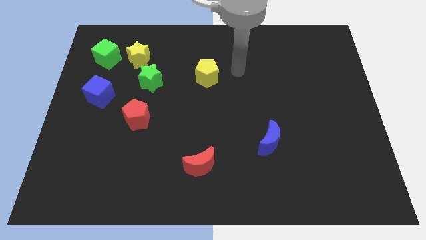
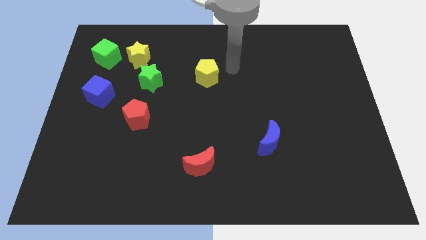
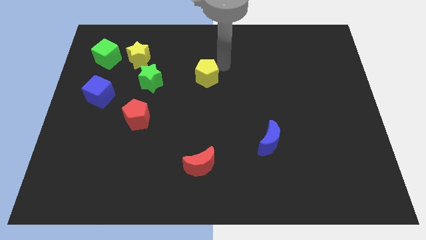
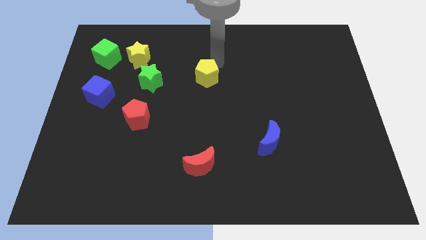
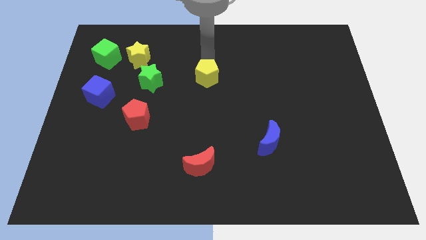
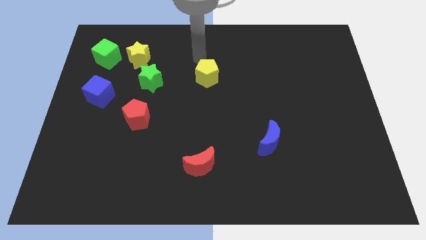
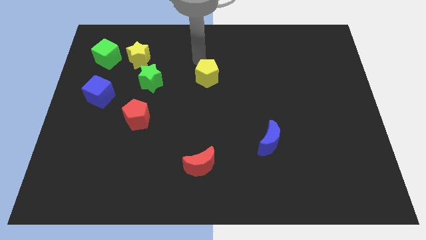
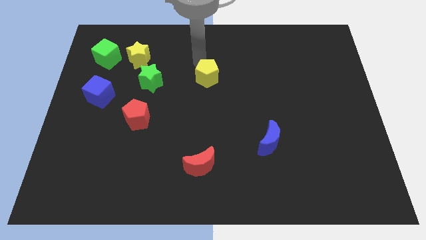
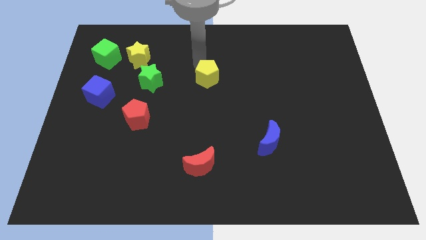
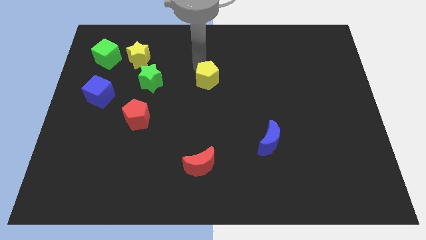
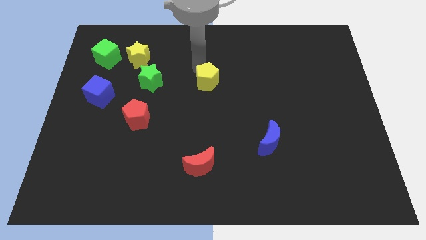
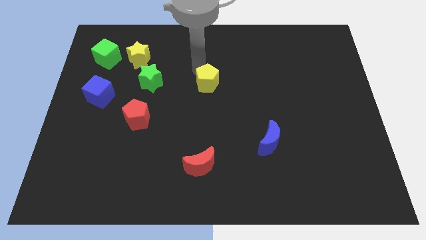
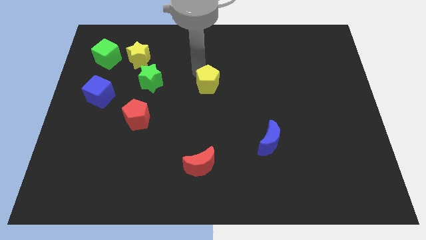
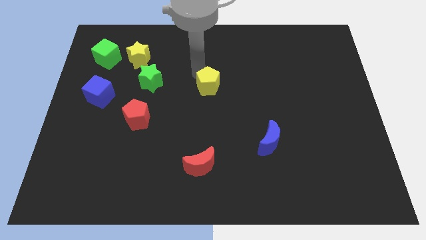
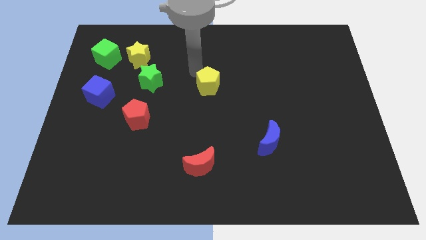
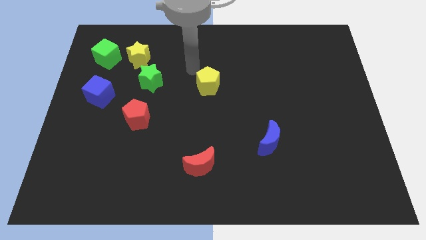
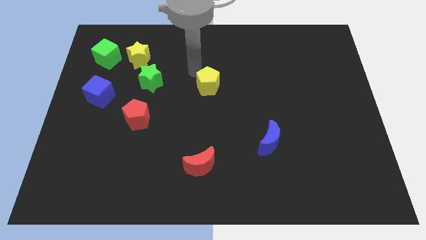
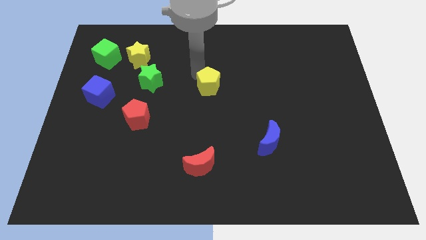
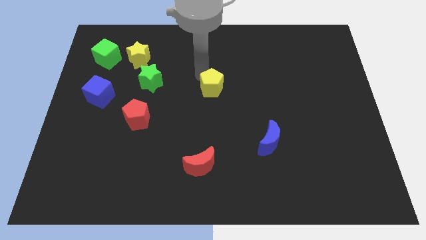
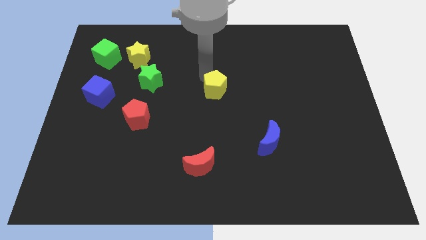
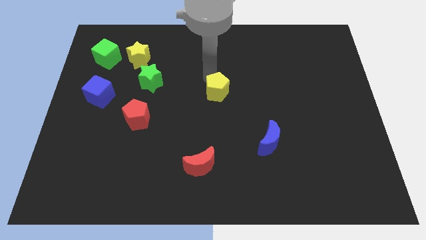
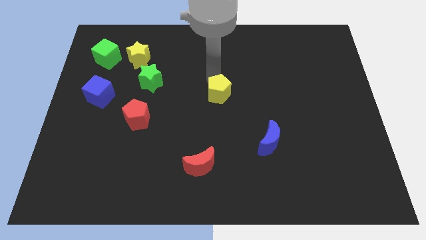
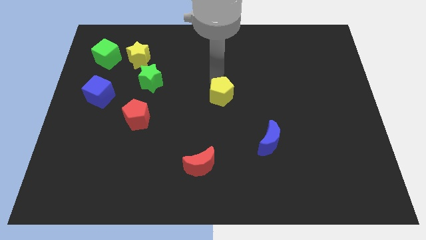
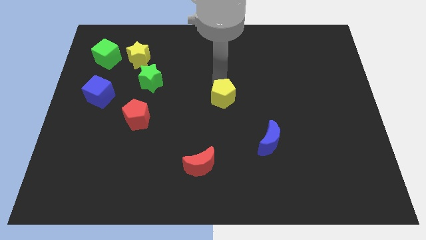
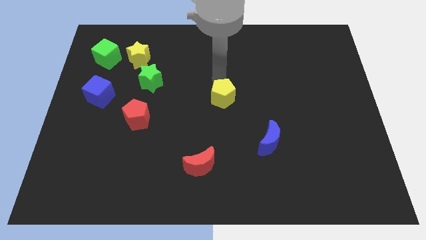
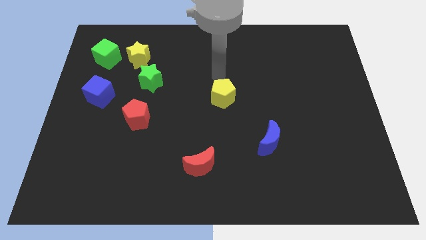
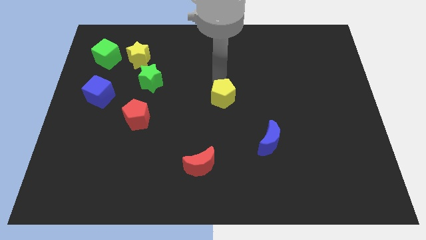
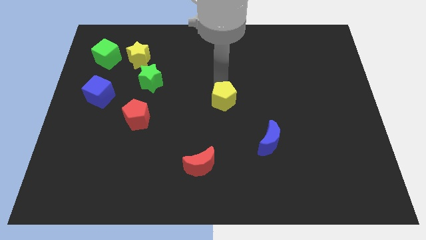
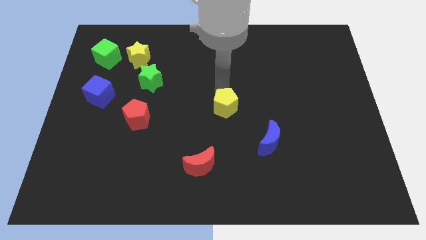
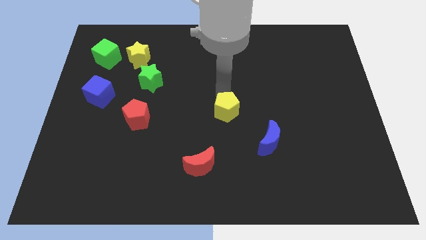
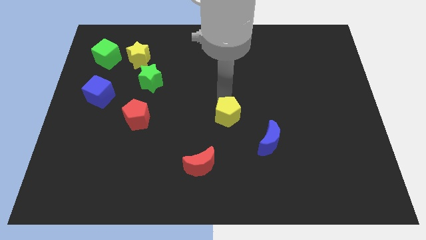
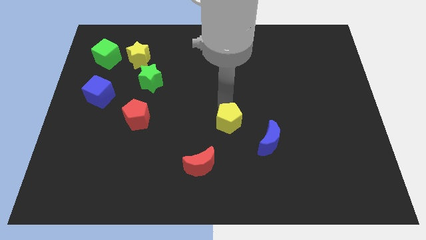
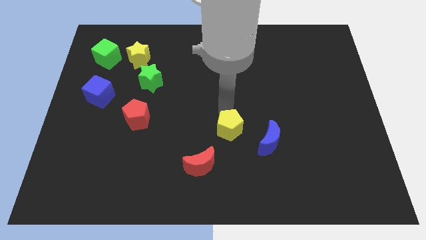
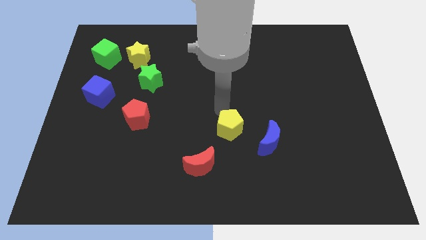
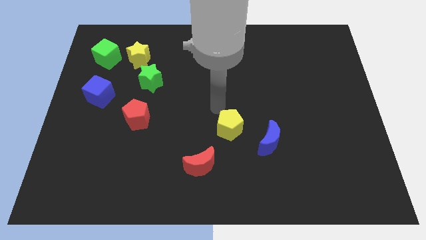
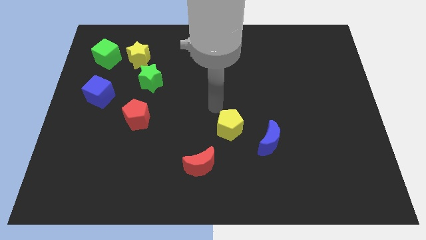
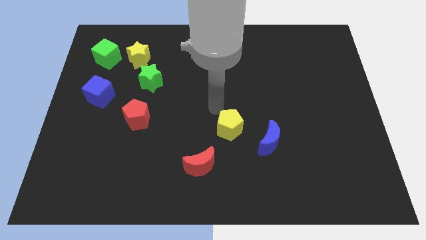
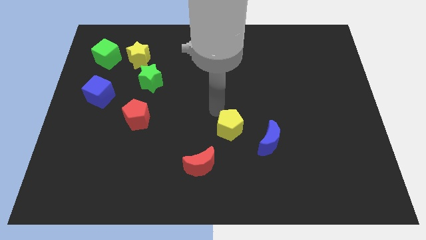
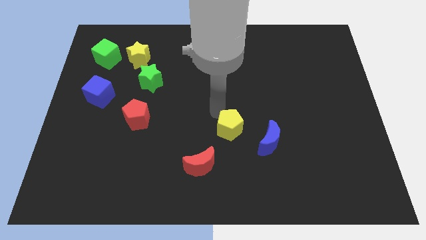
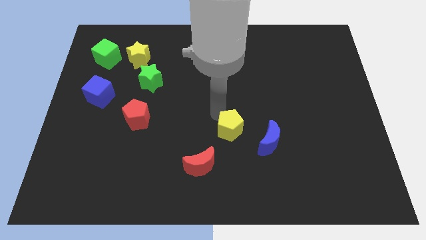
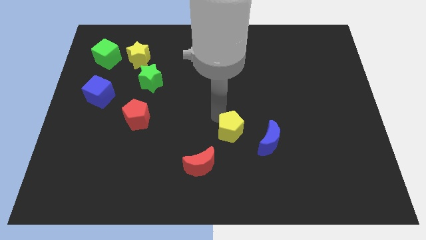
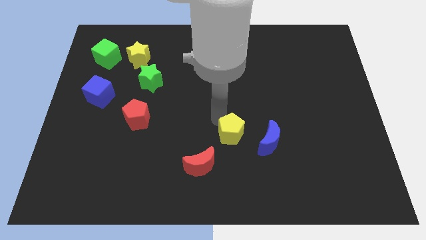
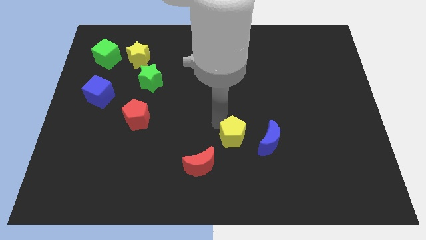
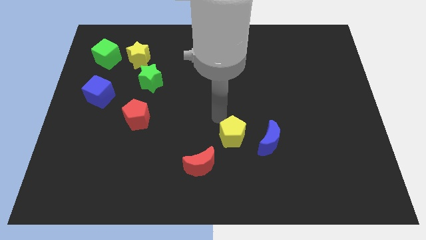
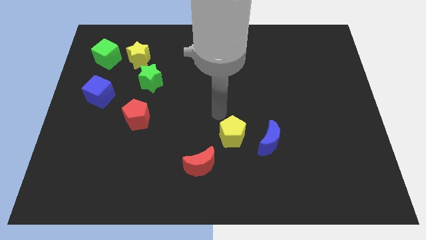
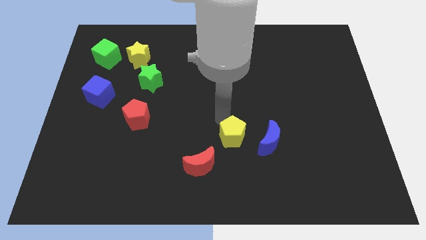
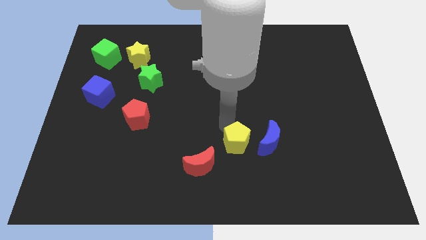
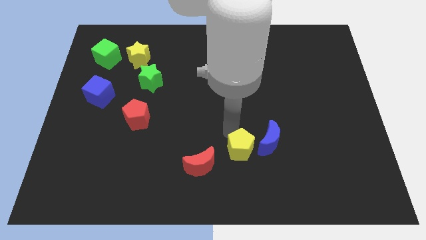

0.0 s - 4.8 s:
put the yellow pentagon to the right side of the red moon

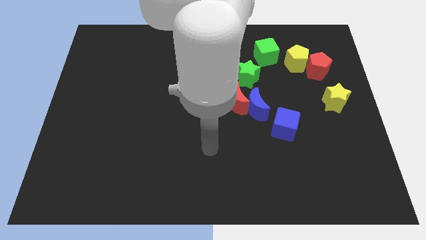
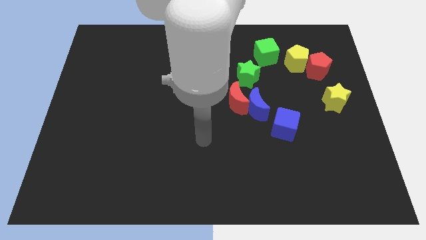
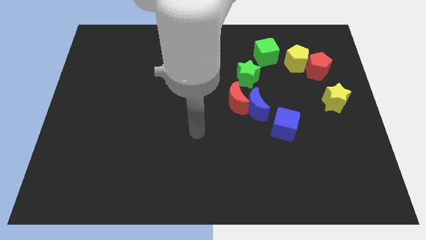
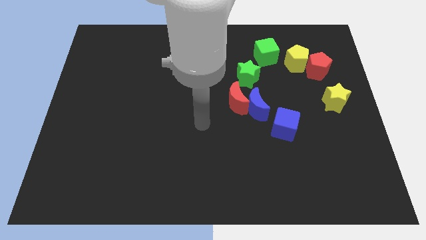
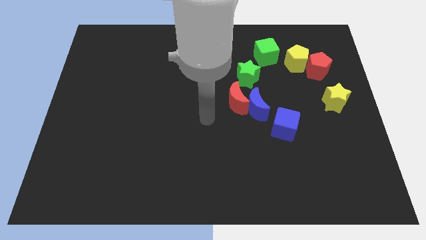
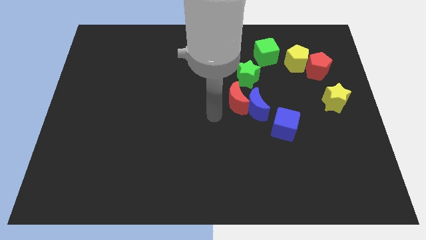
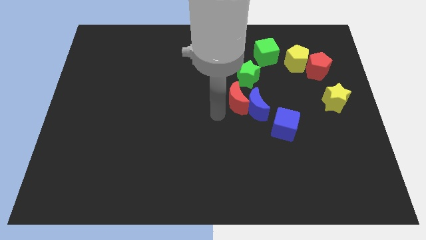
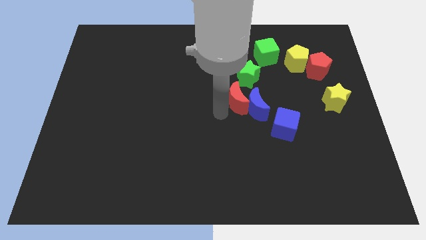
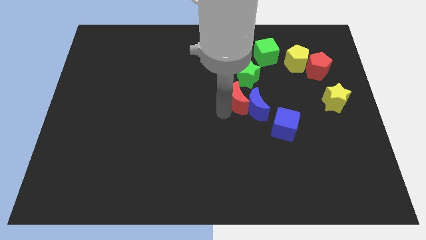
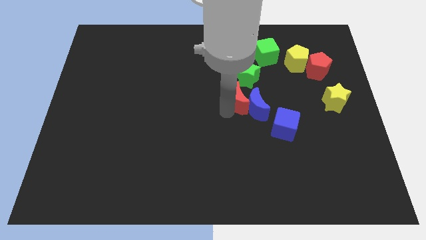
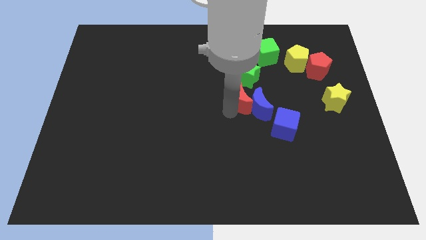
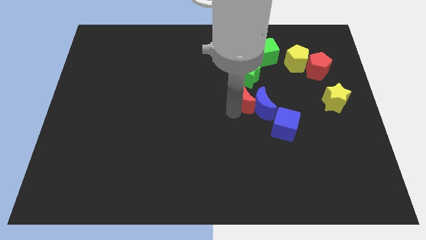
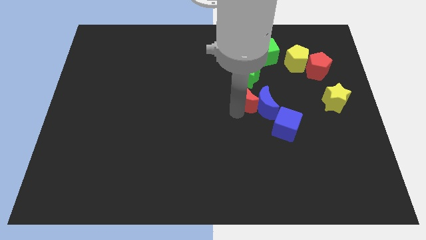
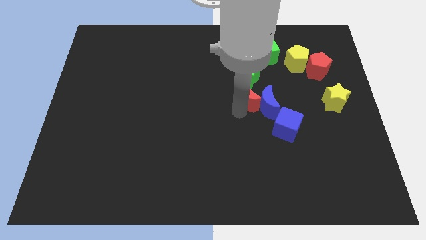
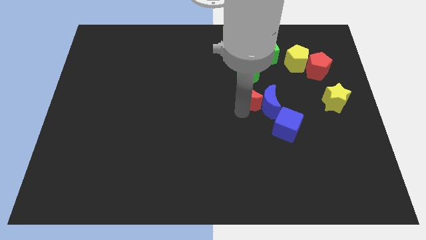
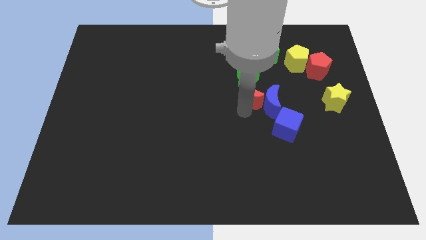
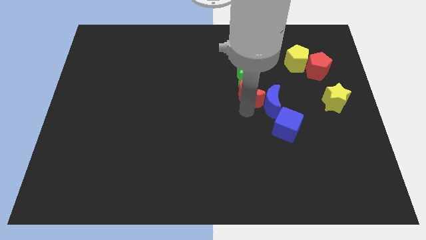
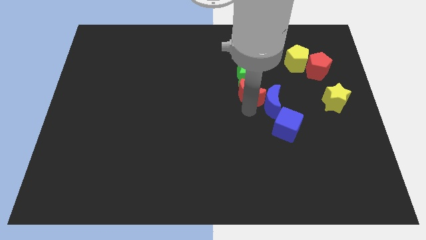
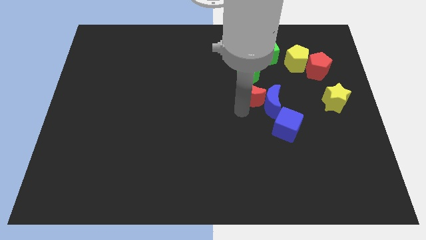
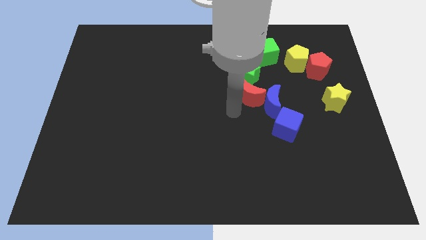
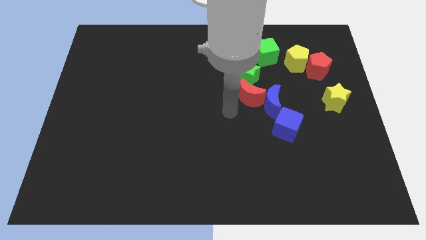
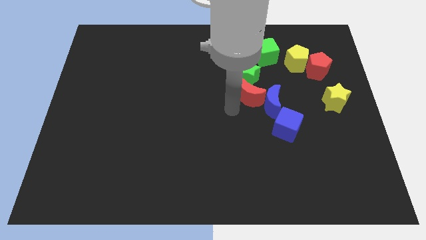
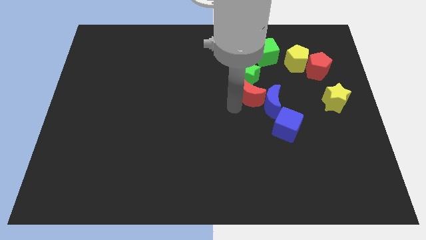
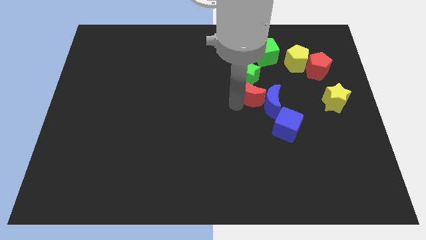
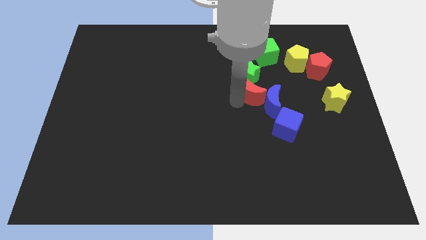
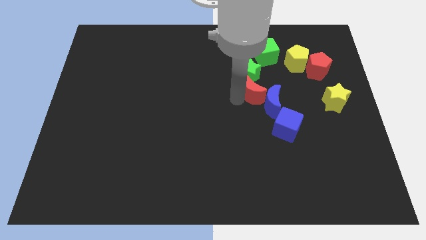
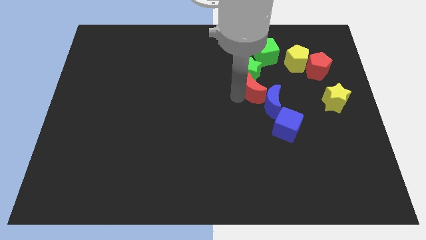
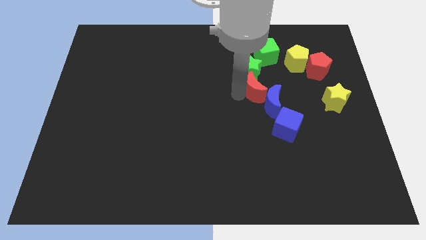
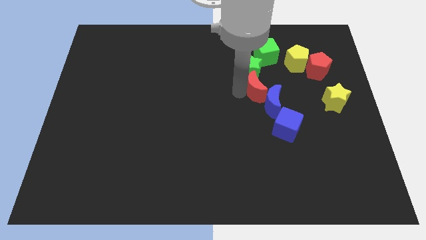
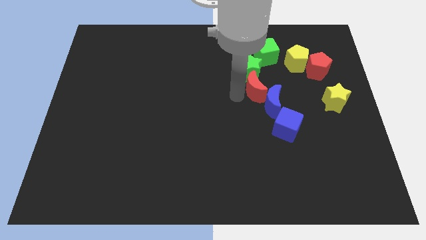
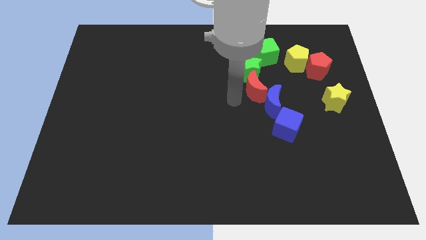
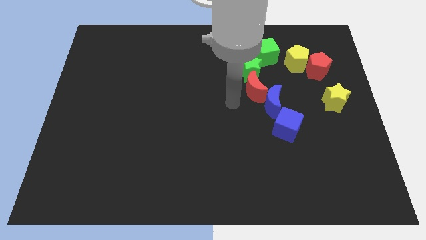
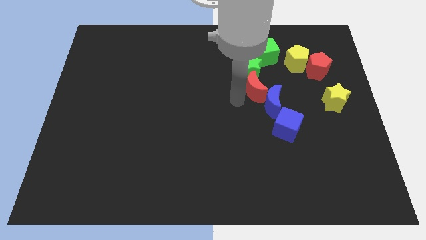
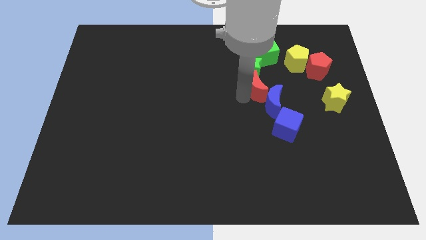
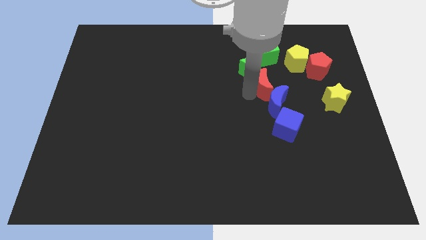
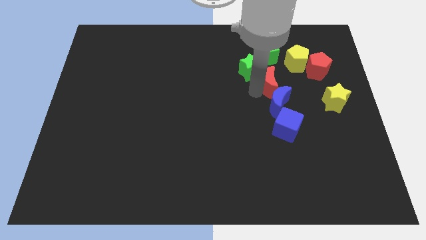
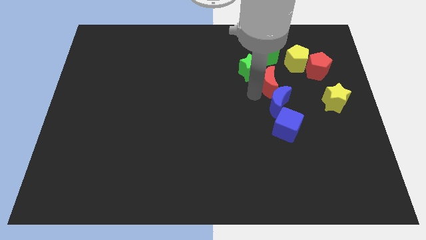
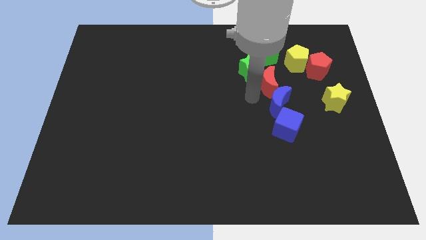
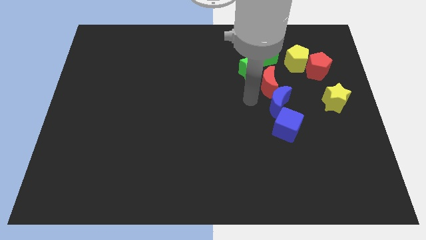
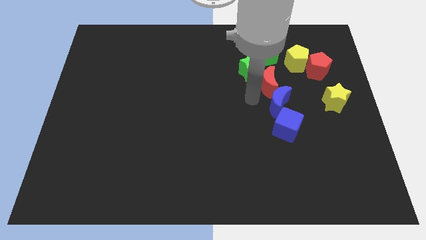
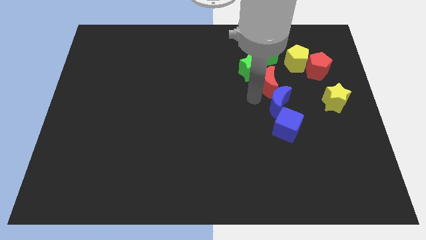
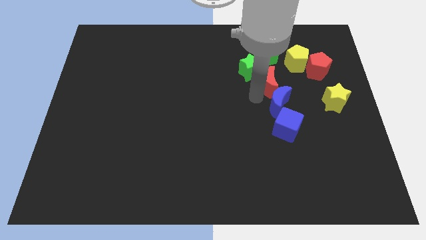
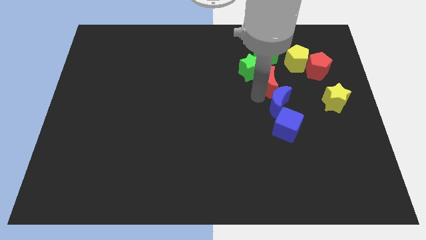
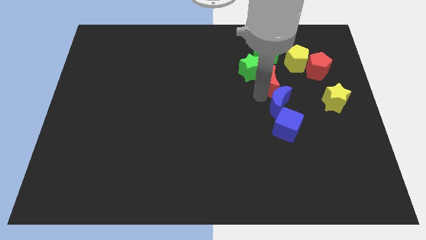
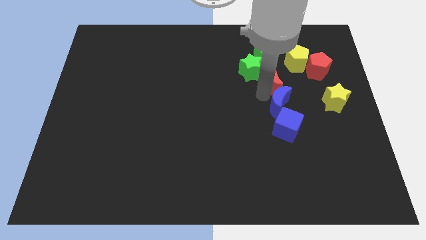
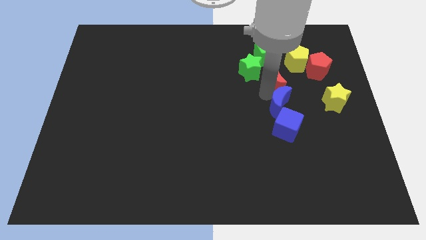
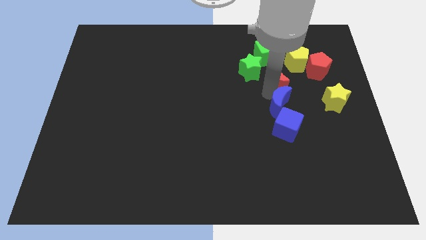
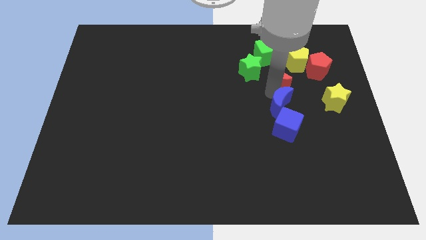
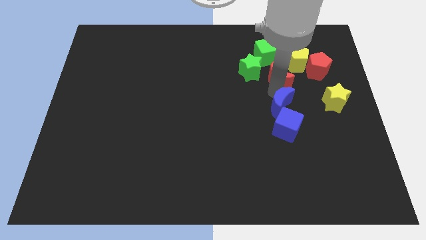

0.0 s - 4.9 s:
move the red moon to the bottom right of the green cube
